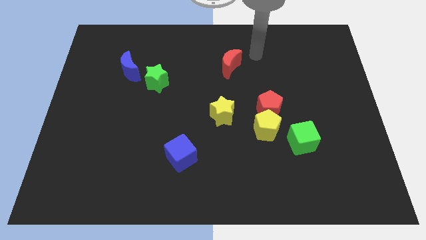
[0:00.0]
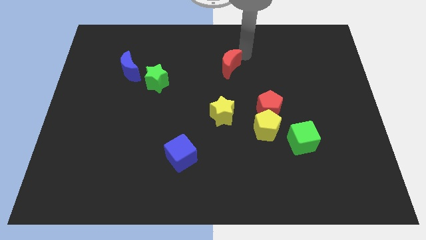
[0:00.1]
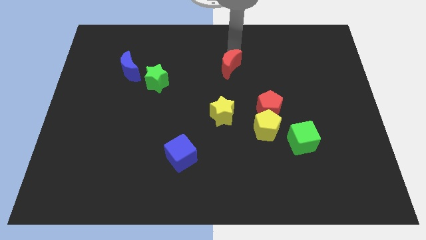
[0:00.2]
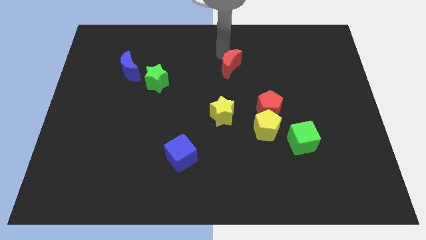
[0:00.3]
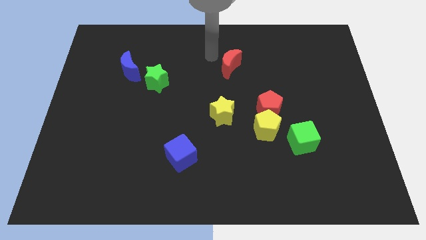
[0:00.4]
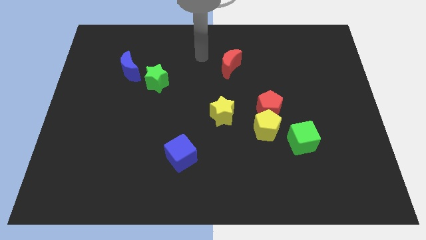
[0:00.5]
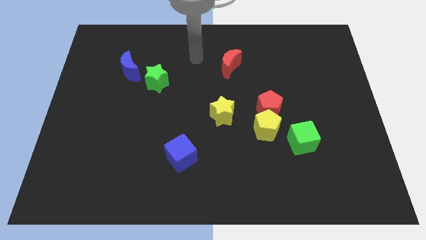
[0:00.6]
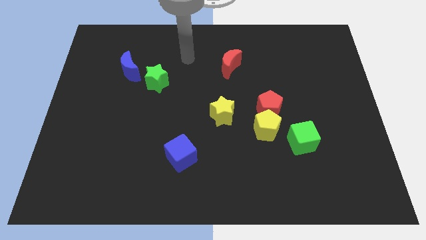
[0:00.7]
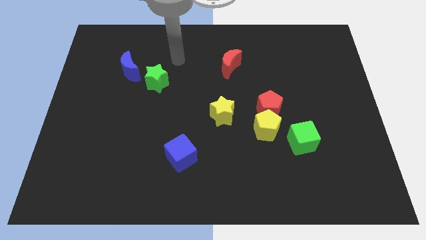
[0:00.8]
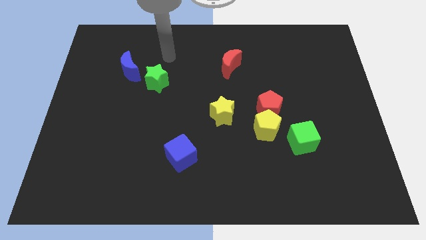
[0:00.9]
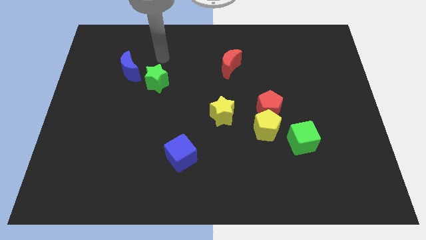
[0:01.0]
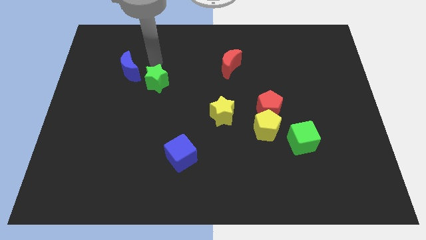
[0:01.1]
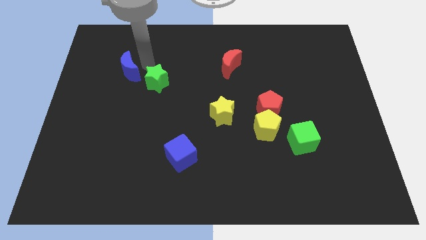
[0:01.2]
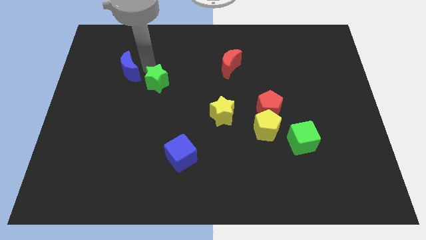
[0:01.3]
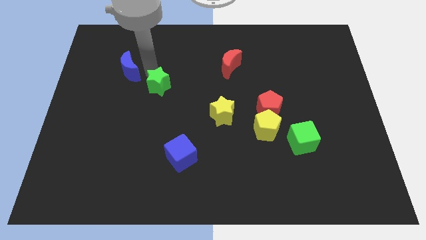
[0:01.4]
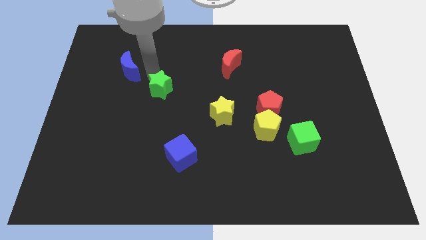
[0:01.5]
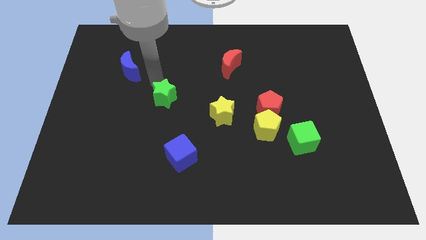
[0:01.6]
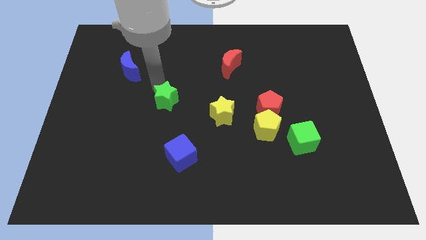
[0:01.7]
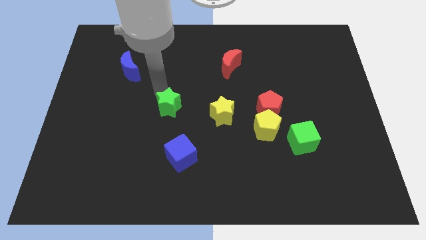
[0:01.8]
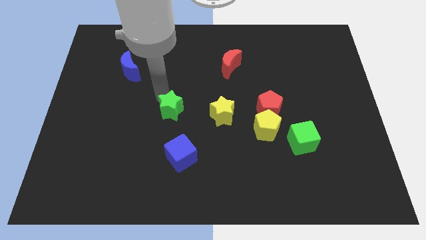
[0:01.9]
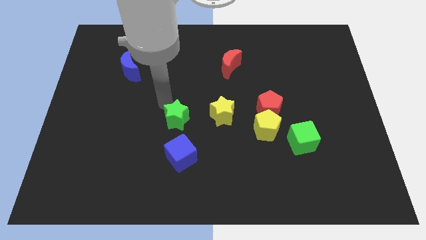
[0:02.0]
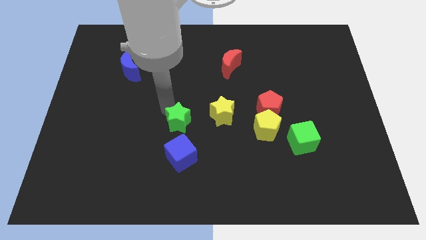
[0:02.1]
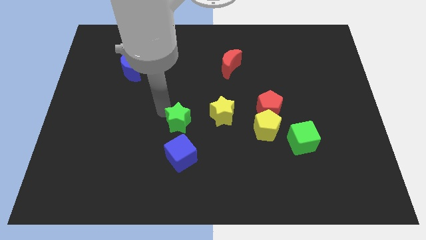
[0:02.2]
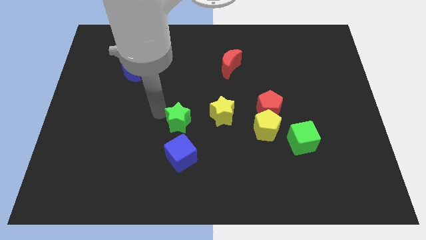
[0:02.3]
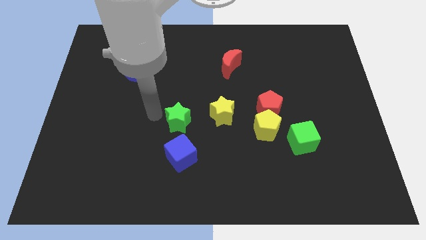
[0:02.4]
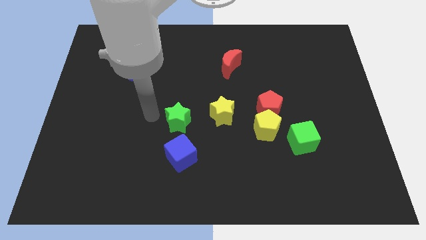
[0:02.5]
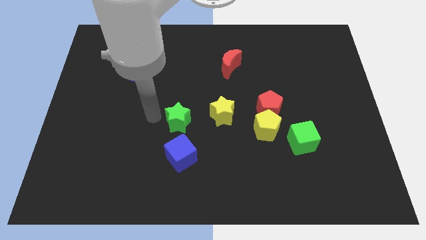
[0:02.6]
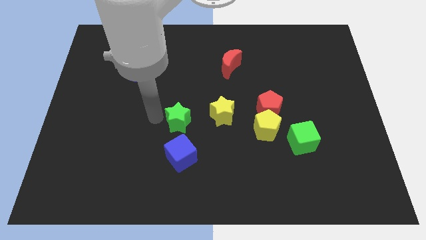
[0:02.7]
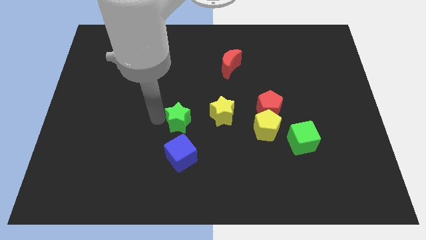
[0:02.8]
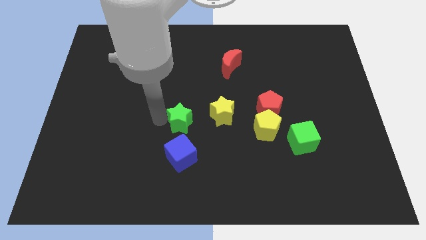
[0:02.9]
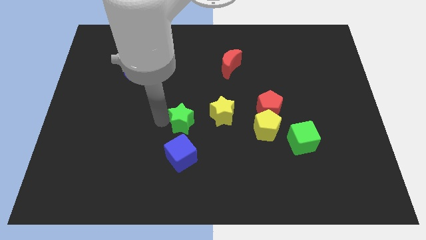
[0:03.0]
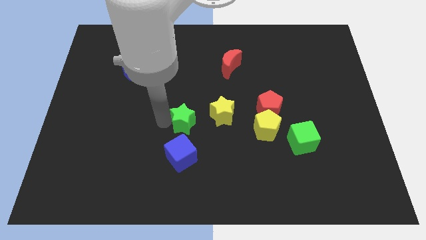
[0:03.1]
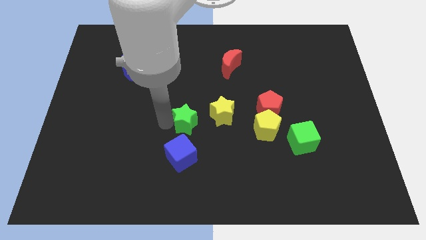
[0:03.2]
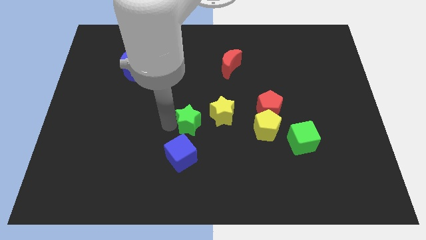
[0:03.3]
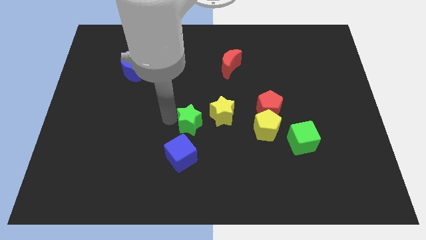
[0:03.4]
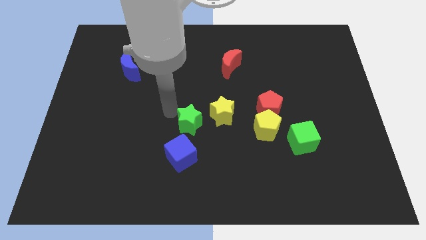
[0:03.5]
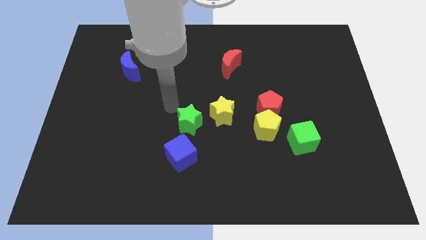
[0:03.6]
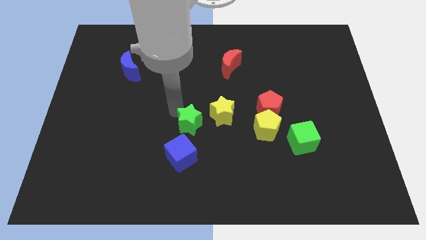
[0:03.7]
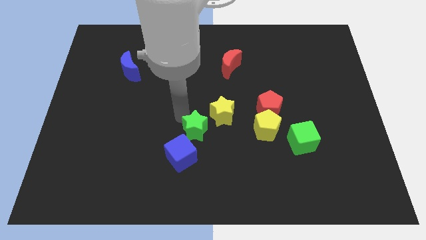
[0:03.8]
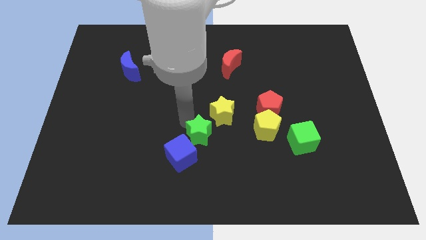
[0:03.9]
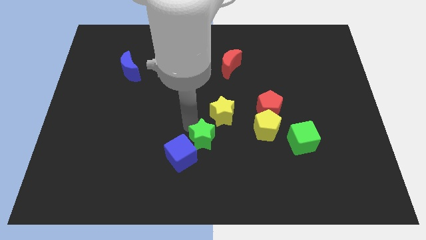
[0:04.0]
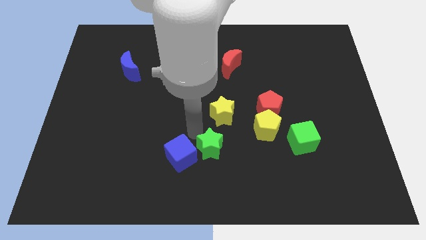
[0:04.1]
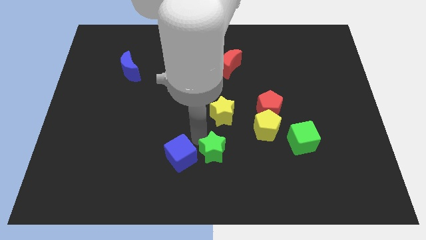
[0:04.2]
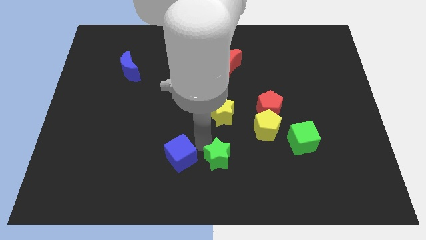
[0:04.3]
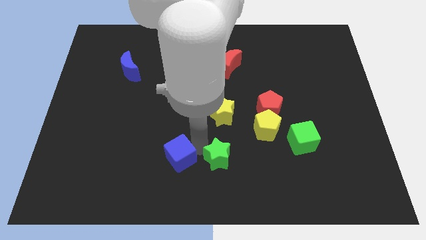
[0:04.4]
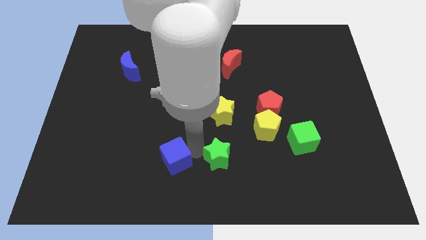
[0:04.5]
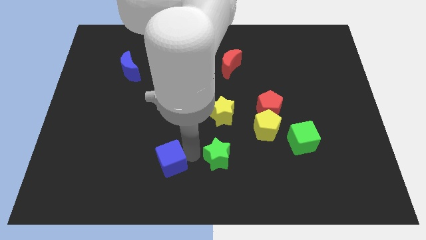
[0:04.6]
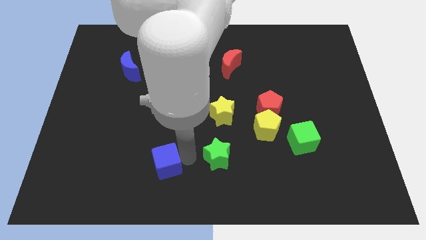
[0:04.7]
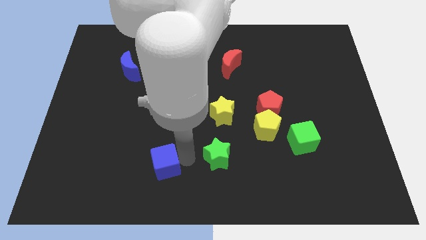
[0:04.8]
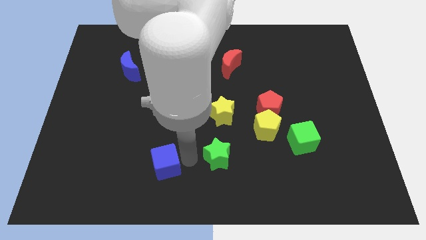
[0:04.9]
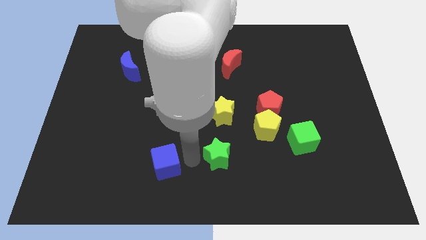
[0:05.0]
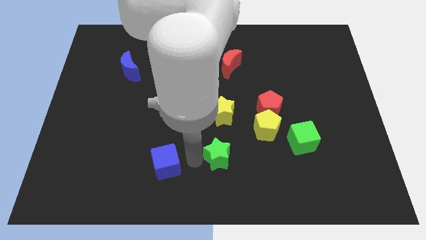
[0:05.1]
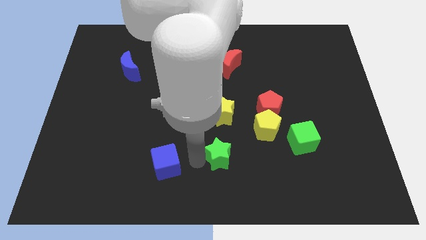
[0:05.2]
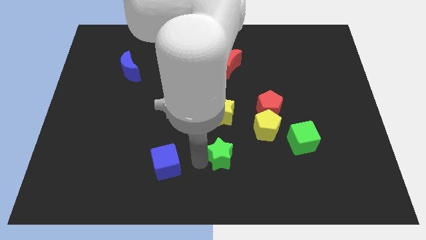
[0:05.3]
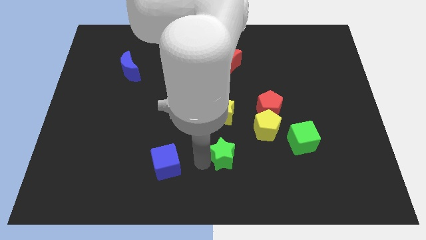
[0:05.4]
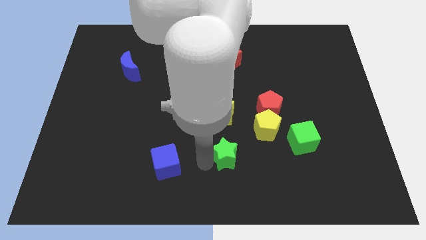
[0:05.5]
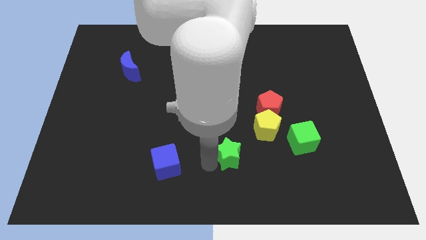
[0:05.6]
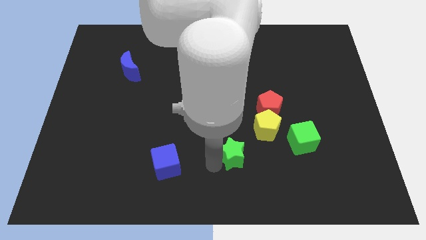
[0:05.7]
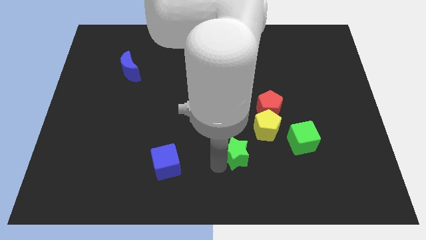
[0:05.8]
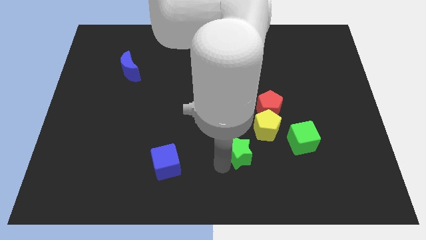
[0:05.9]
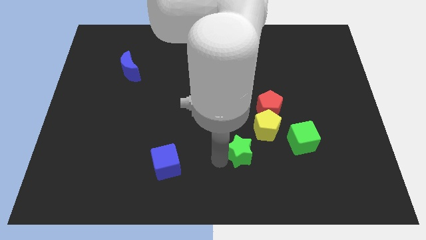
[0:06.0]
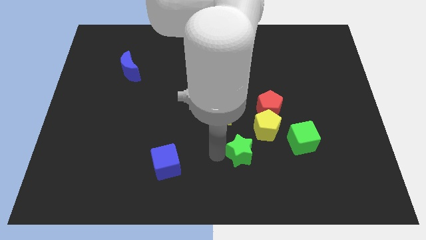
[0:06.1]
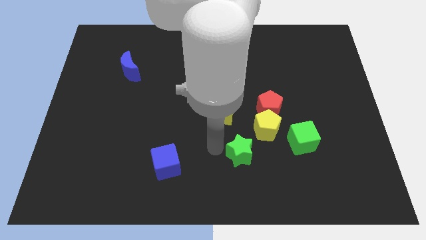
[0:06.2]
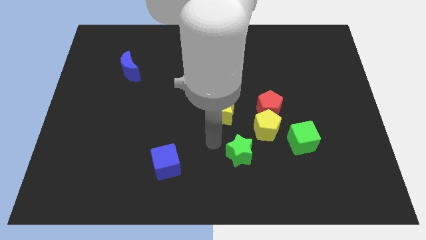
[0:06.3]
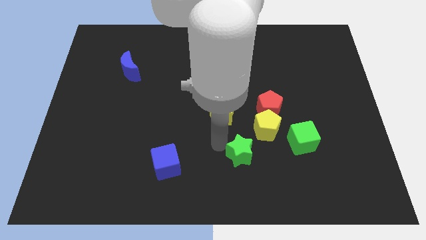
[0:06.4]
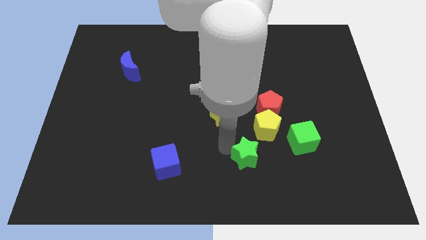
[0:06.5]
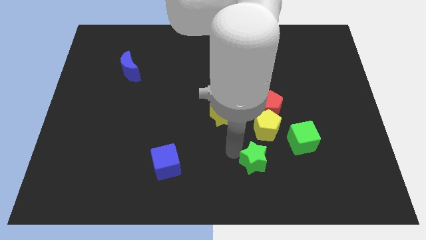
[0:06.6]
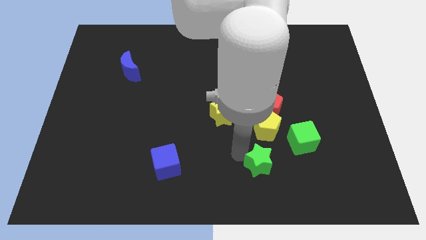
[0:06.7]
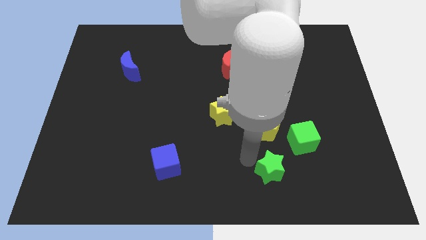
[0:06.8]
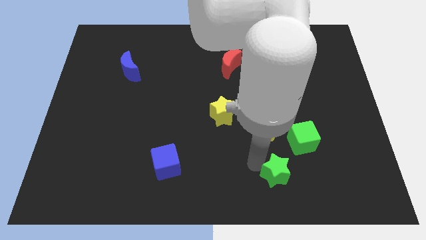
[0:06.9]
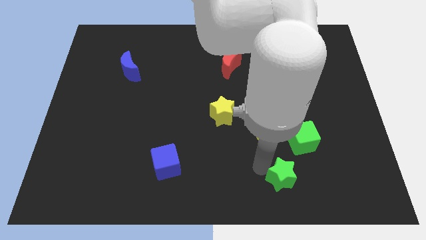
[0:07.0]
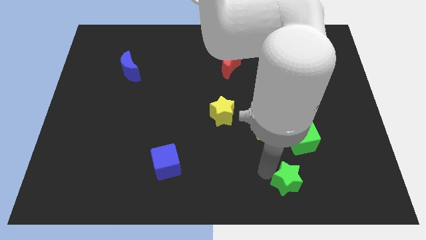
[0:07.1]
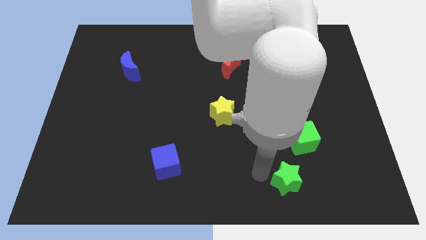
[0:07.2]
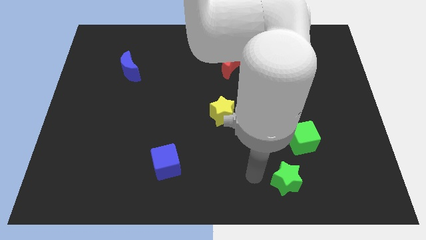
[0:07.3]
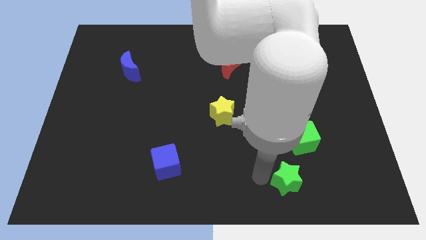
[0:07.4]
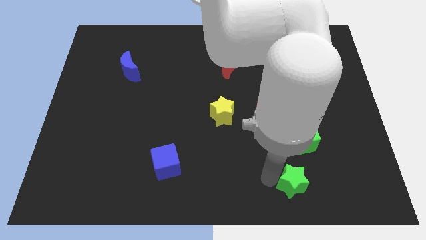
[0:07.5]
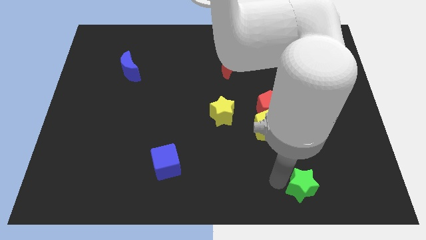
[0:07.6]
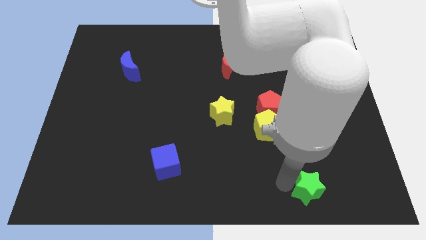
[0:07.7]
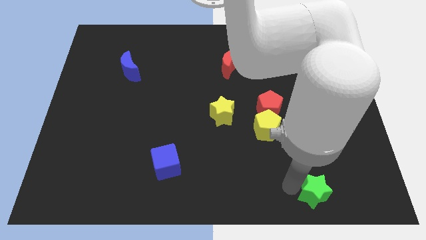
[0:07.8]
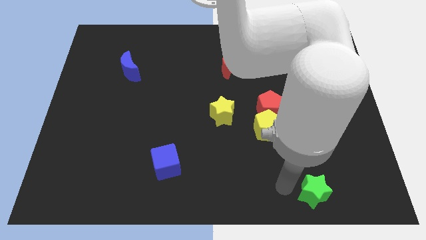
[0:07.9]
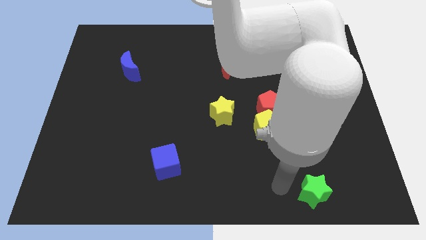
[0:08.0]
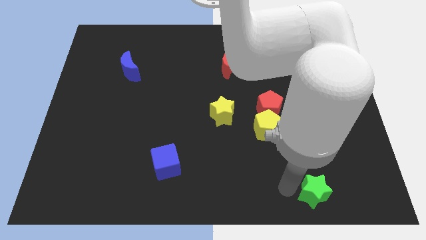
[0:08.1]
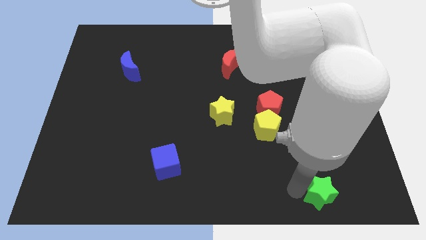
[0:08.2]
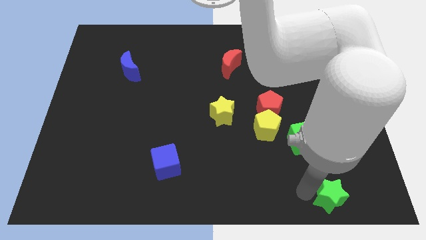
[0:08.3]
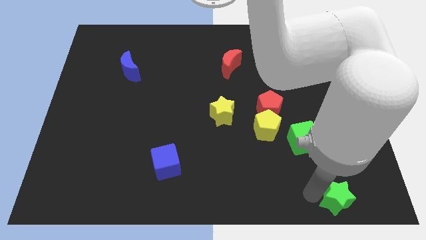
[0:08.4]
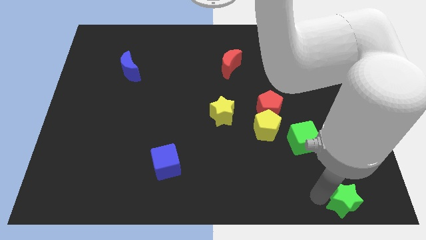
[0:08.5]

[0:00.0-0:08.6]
push the green star to the bottom right of the board
